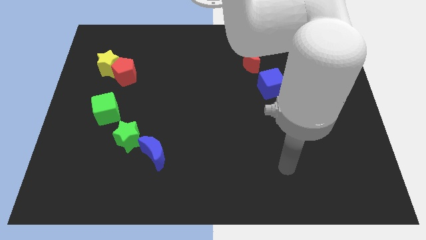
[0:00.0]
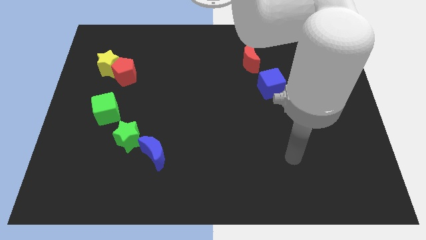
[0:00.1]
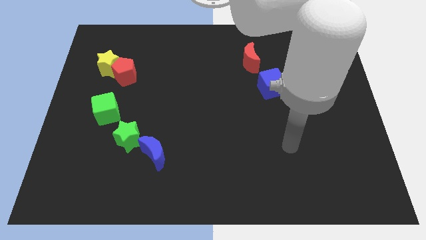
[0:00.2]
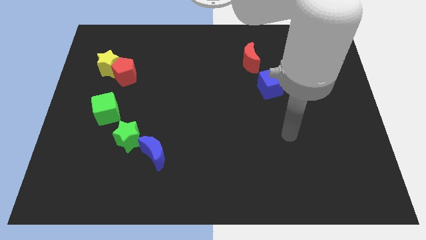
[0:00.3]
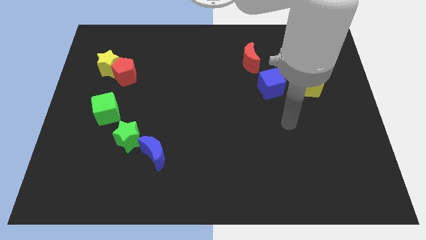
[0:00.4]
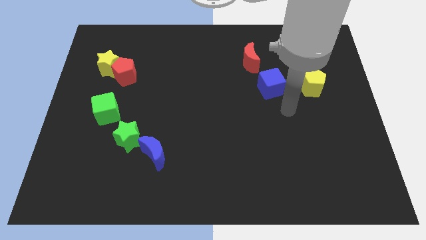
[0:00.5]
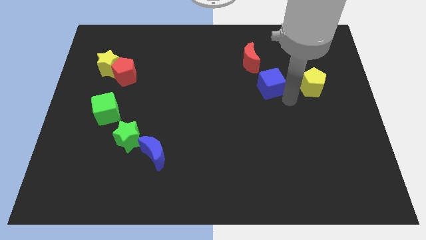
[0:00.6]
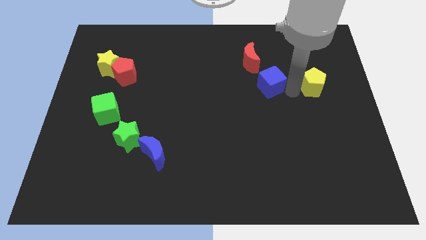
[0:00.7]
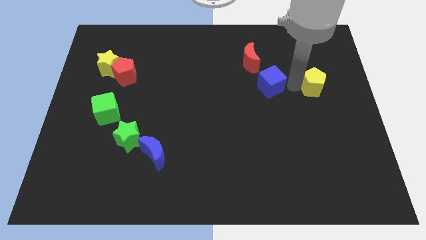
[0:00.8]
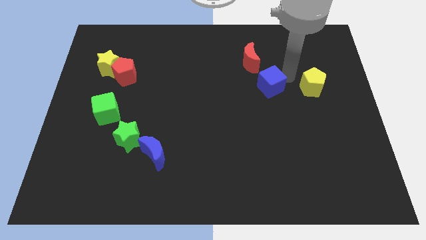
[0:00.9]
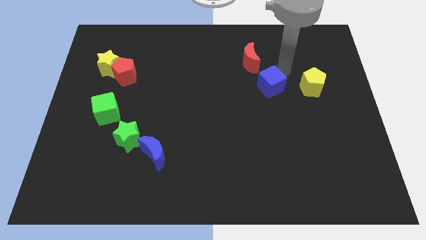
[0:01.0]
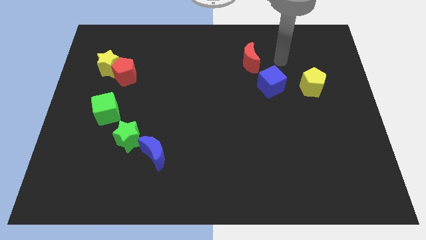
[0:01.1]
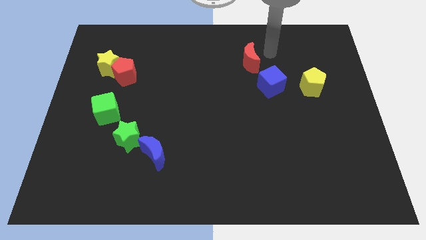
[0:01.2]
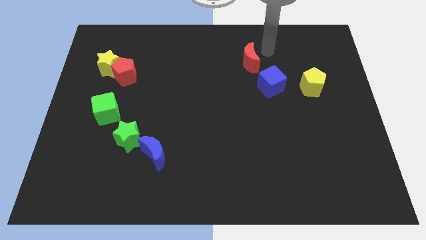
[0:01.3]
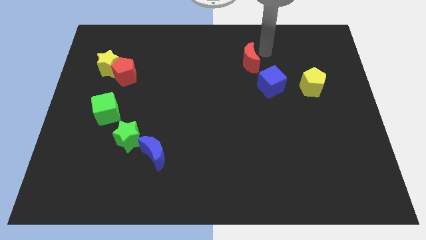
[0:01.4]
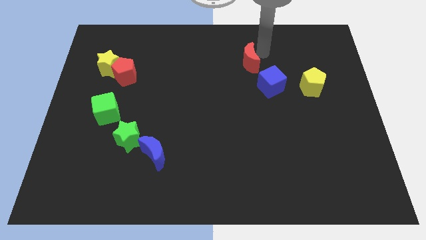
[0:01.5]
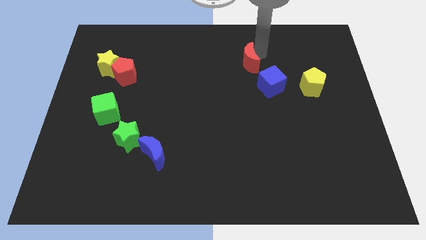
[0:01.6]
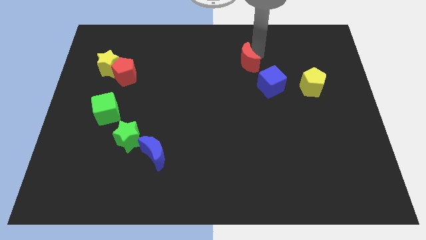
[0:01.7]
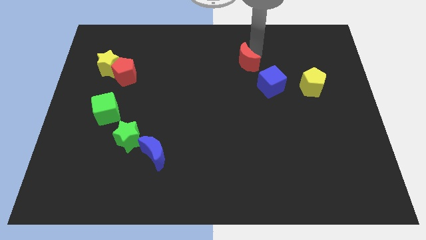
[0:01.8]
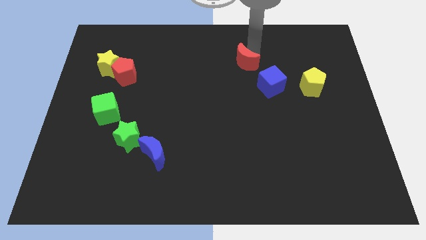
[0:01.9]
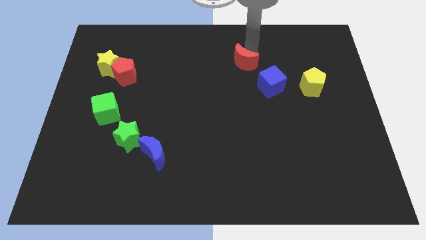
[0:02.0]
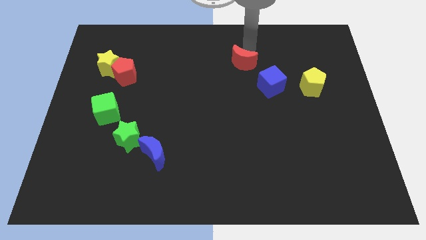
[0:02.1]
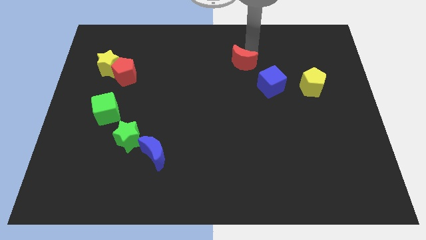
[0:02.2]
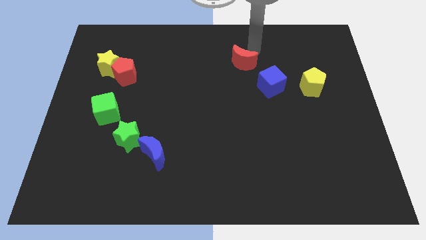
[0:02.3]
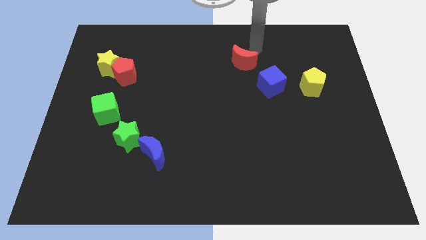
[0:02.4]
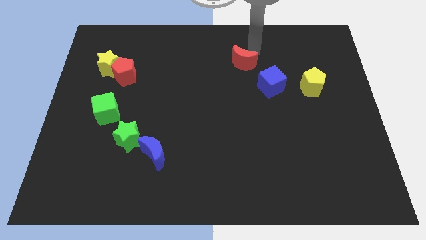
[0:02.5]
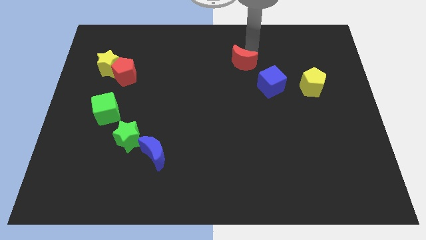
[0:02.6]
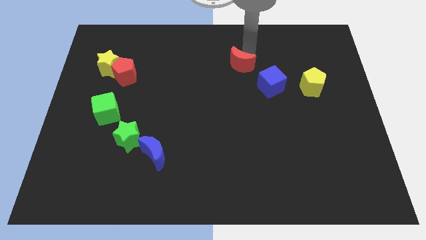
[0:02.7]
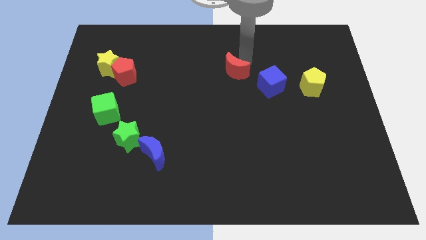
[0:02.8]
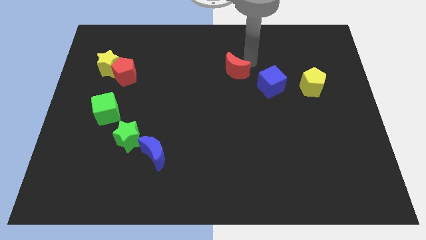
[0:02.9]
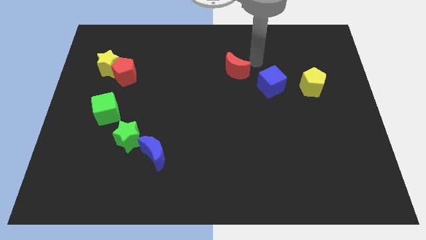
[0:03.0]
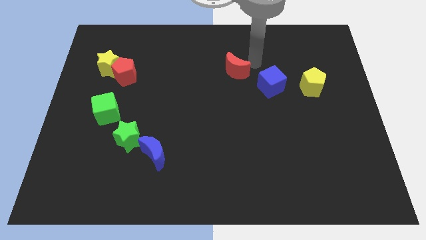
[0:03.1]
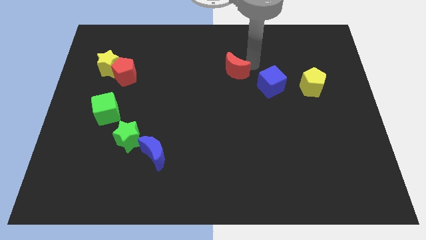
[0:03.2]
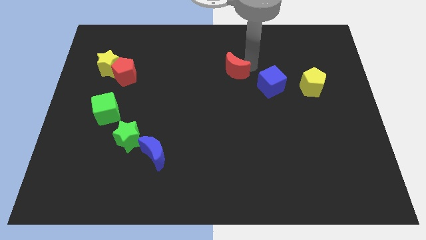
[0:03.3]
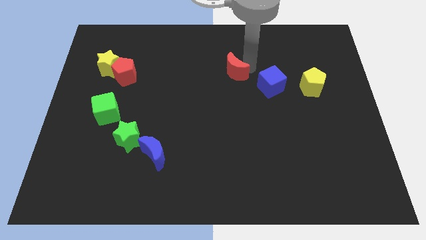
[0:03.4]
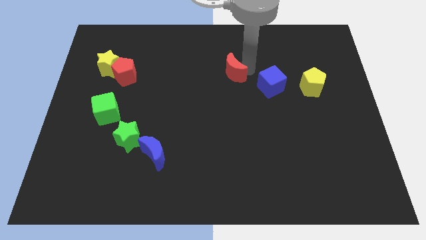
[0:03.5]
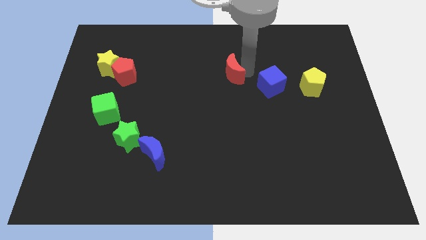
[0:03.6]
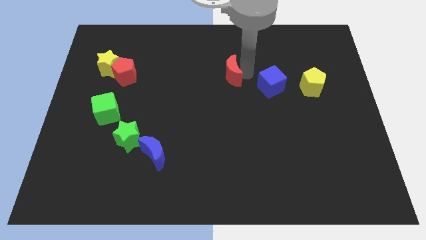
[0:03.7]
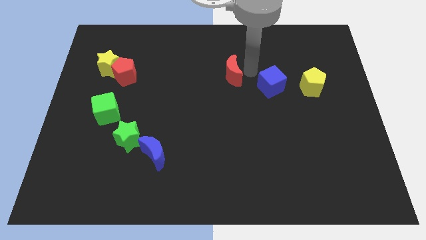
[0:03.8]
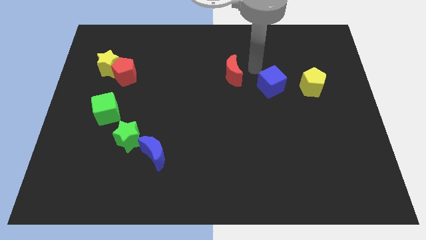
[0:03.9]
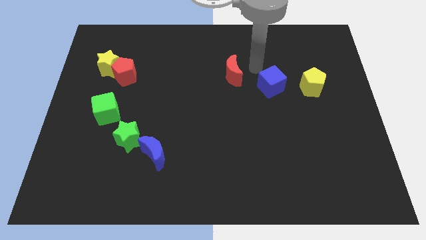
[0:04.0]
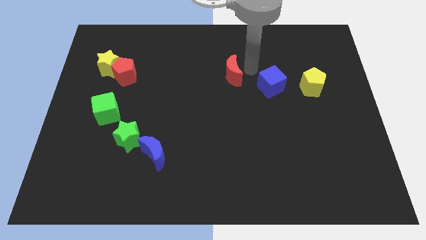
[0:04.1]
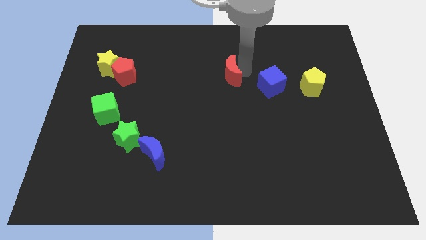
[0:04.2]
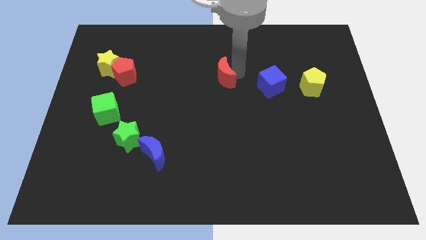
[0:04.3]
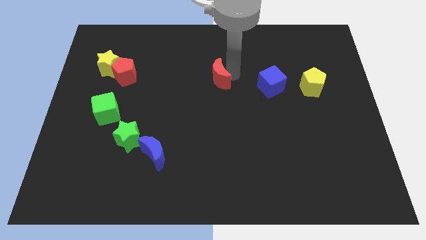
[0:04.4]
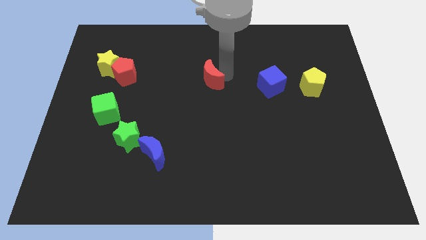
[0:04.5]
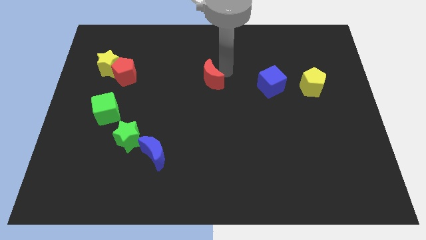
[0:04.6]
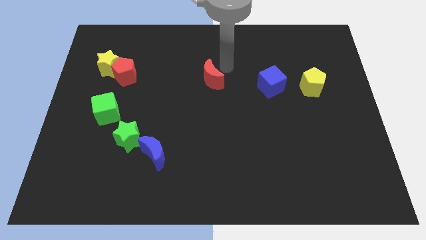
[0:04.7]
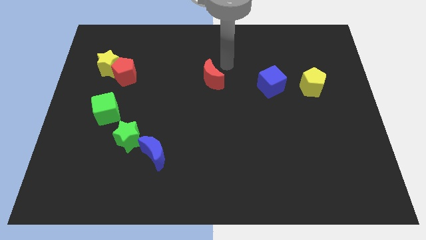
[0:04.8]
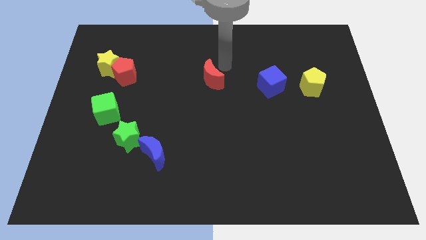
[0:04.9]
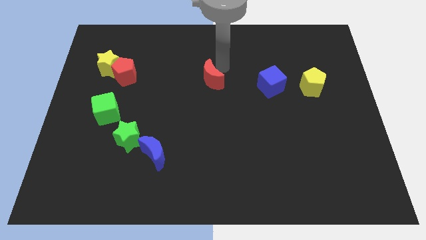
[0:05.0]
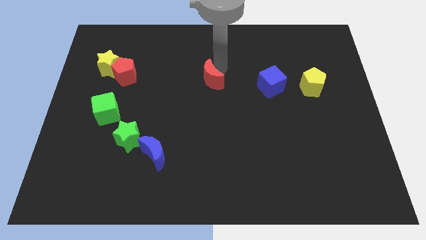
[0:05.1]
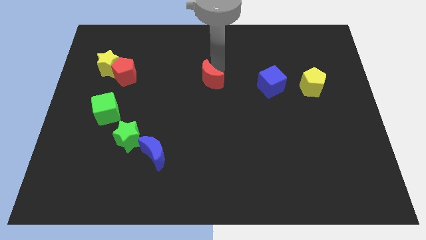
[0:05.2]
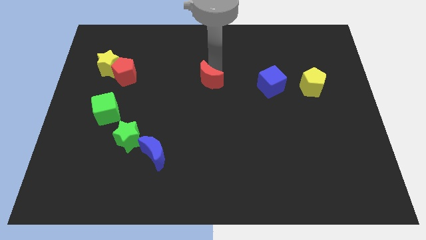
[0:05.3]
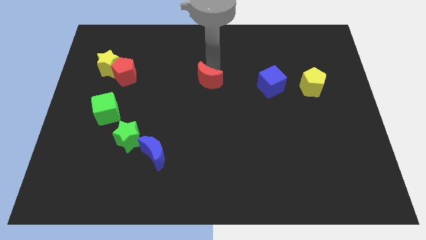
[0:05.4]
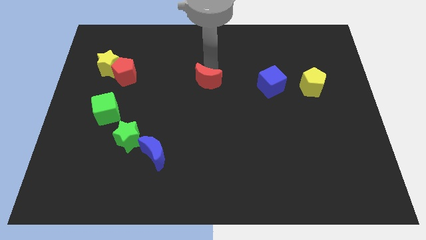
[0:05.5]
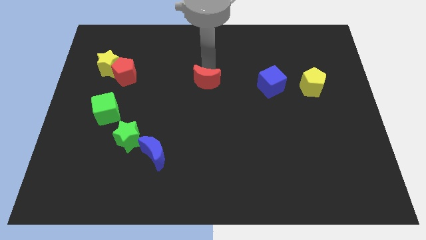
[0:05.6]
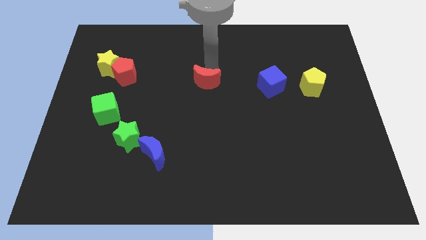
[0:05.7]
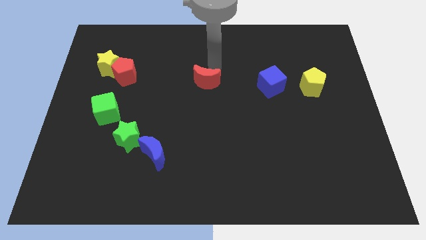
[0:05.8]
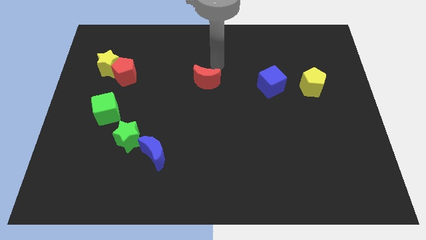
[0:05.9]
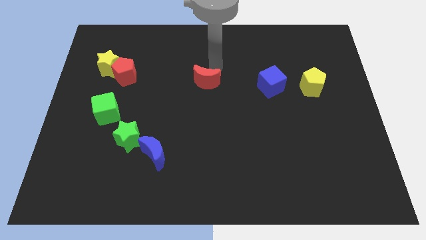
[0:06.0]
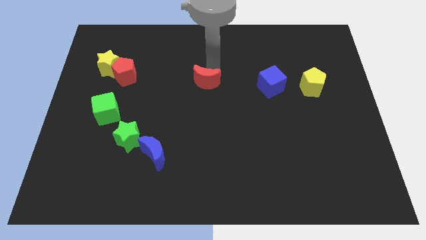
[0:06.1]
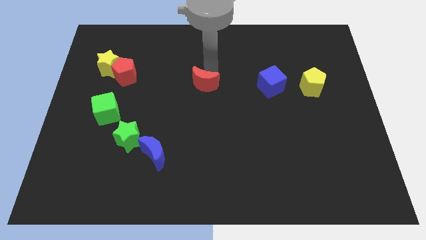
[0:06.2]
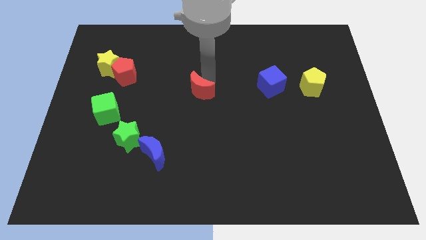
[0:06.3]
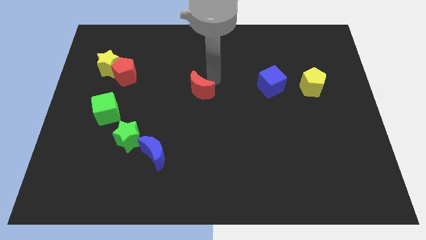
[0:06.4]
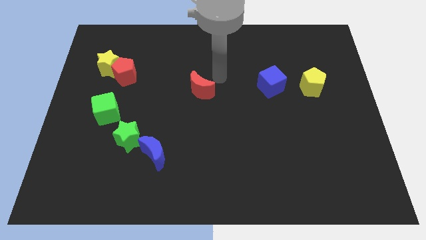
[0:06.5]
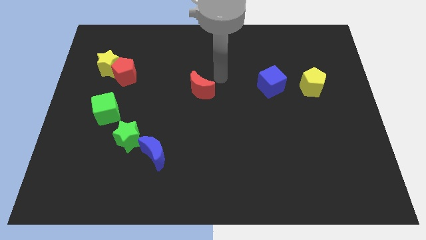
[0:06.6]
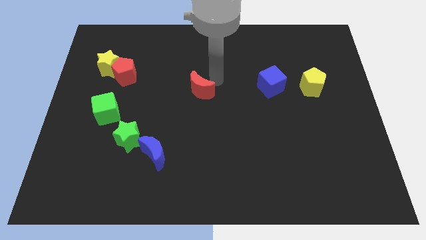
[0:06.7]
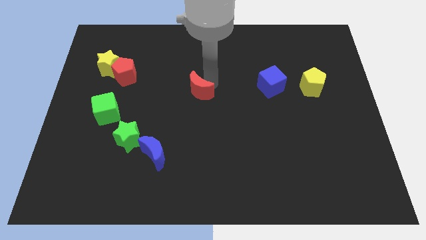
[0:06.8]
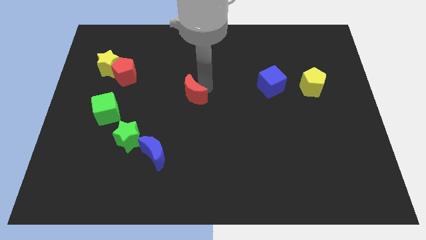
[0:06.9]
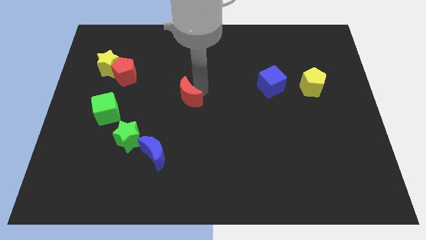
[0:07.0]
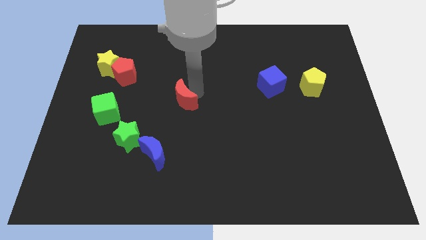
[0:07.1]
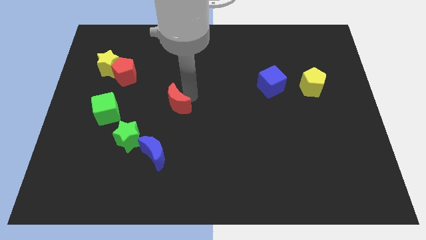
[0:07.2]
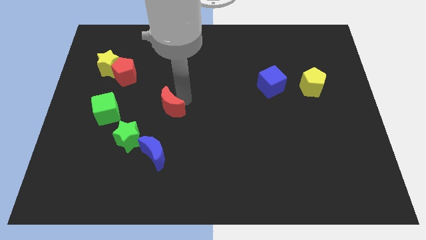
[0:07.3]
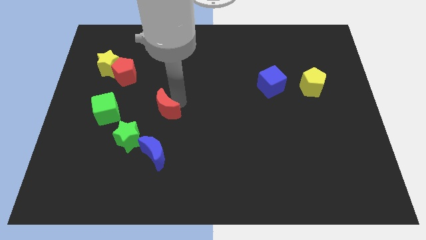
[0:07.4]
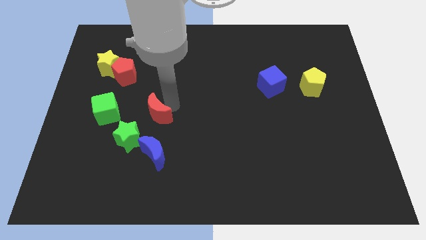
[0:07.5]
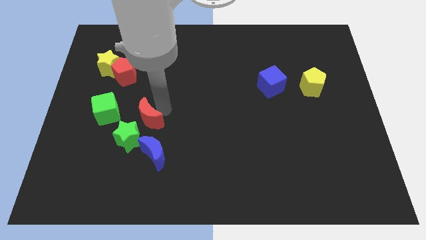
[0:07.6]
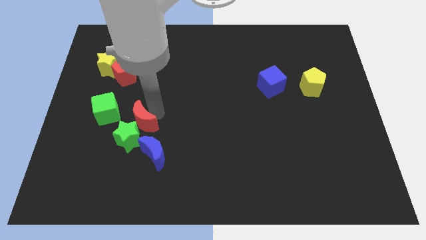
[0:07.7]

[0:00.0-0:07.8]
move the red moon towards the green star
